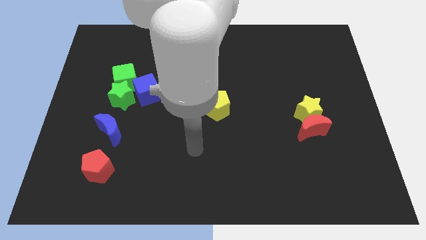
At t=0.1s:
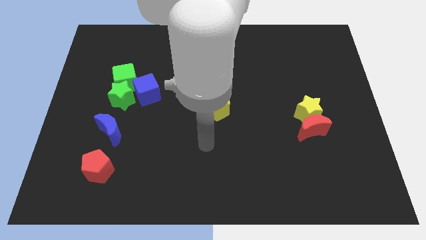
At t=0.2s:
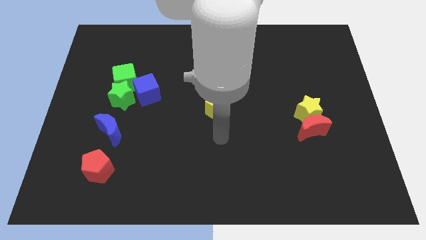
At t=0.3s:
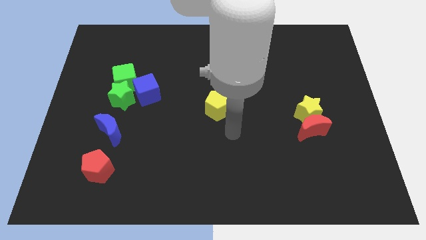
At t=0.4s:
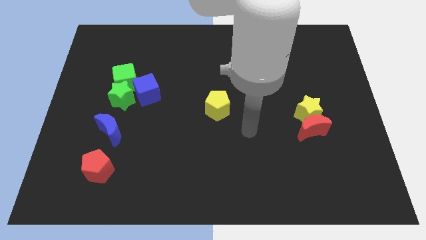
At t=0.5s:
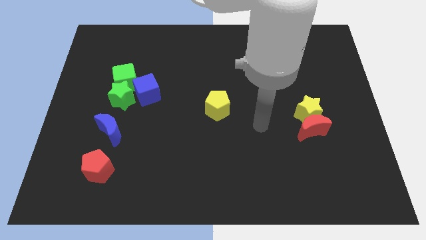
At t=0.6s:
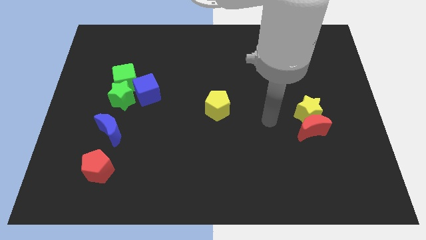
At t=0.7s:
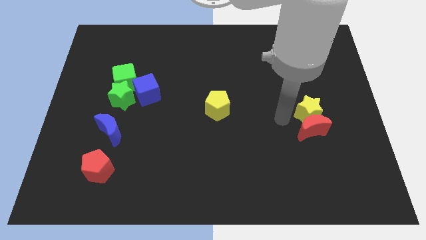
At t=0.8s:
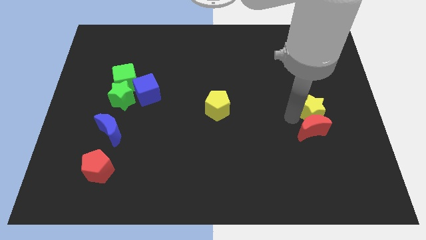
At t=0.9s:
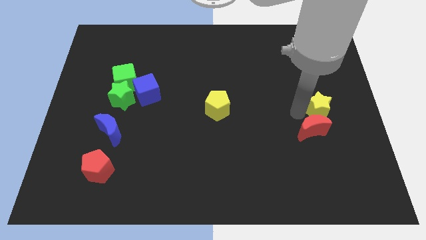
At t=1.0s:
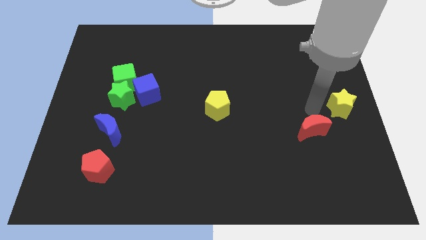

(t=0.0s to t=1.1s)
move the red moon away from the yellow star

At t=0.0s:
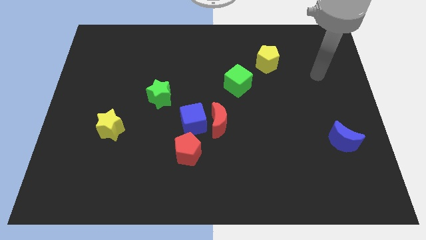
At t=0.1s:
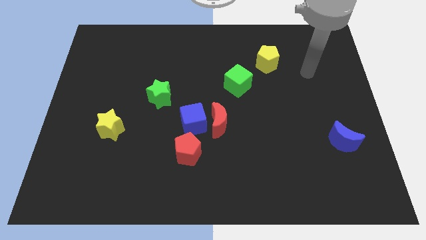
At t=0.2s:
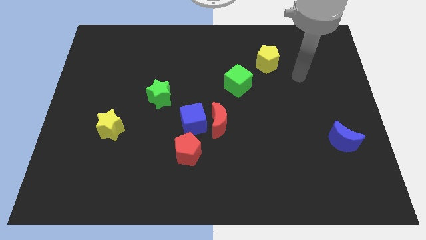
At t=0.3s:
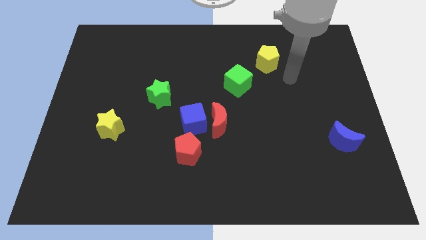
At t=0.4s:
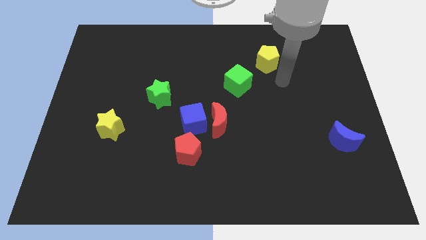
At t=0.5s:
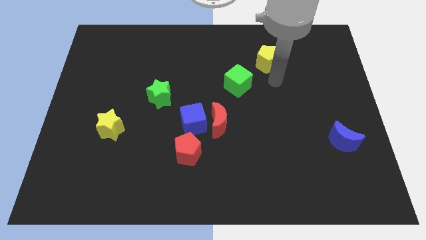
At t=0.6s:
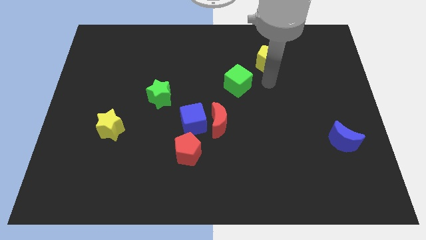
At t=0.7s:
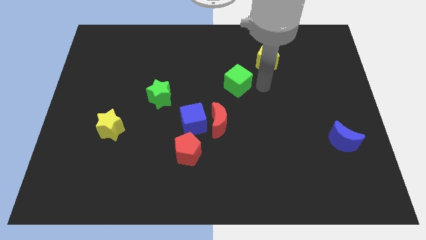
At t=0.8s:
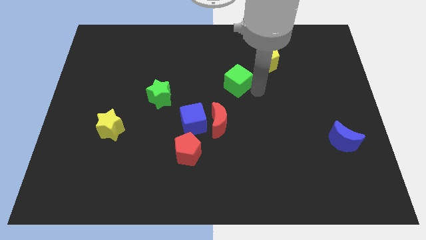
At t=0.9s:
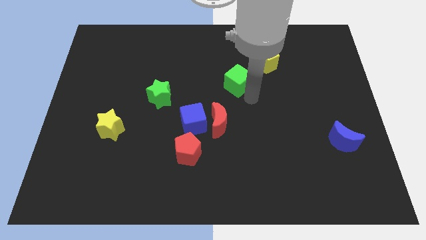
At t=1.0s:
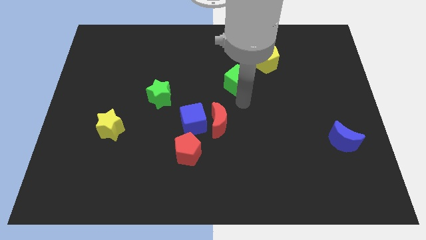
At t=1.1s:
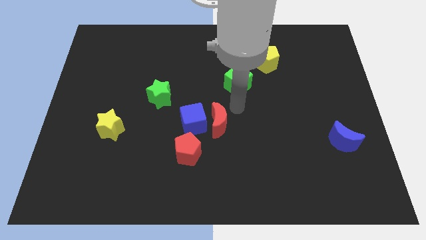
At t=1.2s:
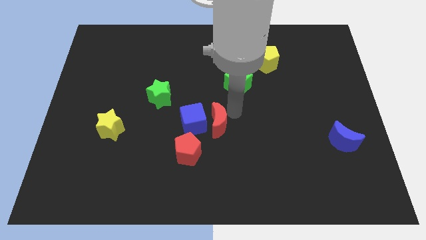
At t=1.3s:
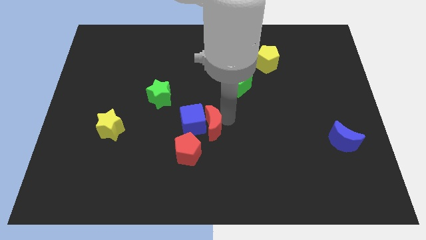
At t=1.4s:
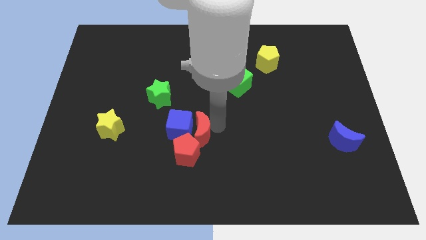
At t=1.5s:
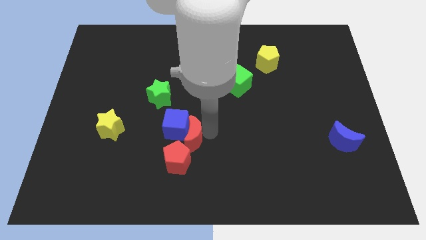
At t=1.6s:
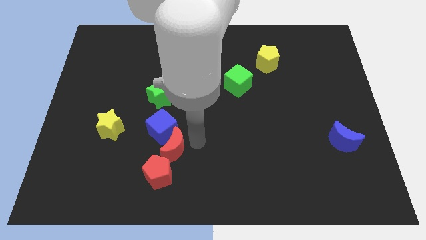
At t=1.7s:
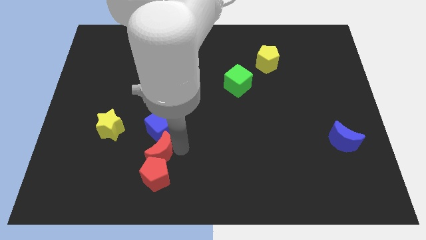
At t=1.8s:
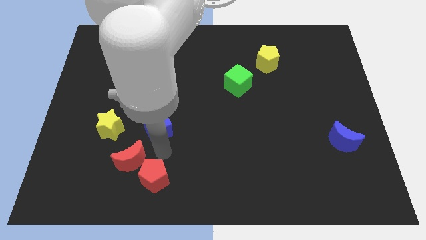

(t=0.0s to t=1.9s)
pull the blue cube apart from the red moon and red pentagon

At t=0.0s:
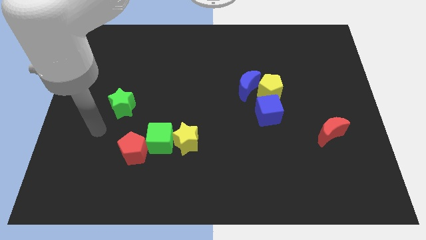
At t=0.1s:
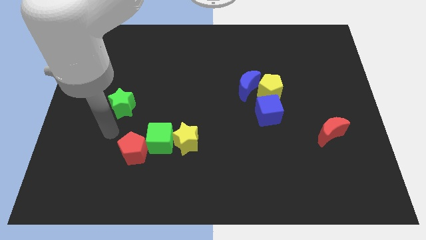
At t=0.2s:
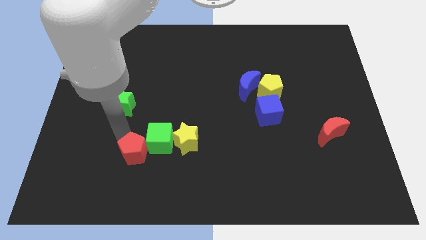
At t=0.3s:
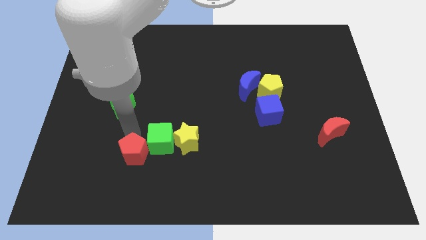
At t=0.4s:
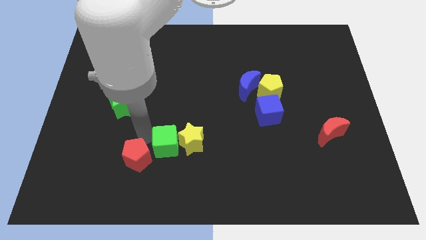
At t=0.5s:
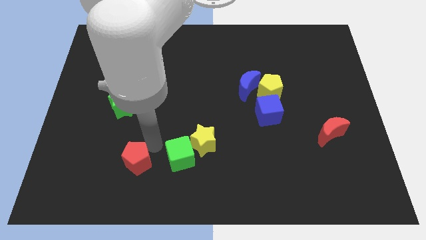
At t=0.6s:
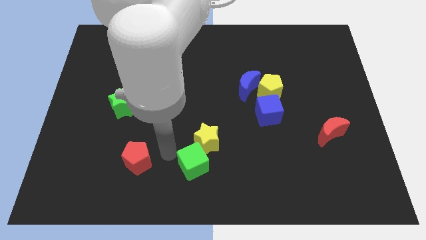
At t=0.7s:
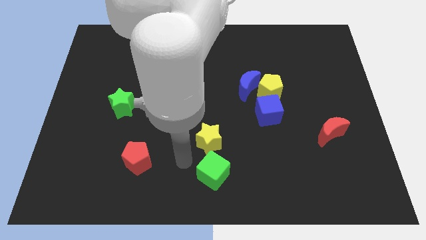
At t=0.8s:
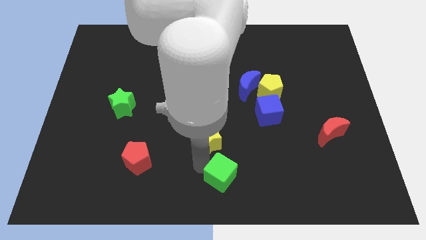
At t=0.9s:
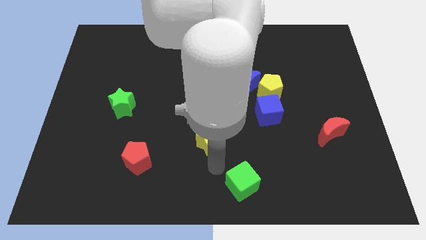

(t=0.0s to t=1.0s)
separate the yellow star from the green cube

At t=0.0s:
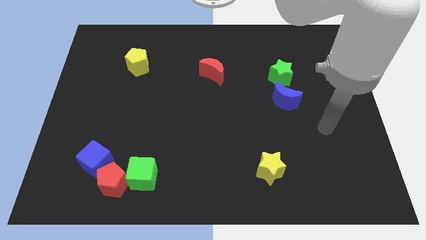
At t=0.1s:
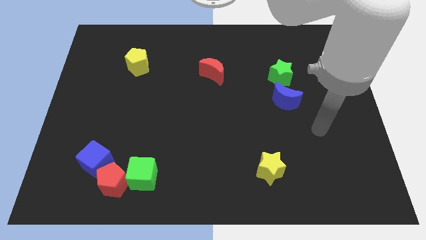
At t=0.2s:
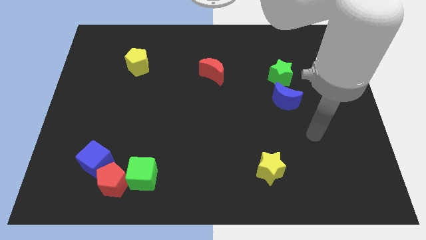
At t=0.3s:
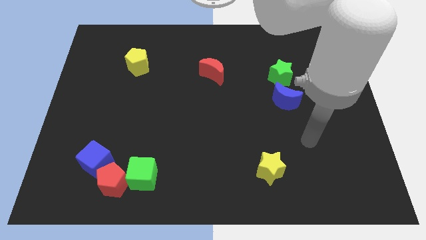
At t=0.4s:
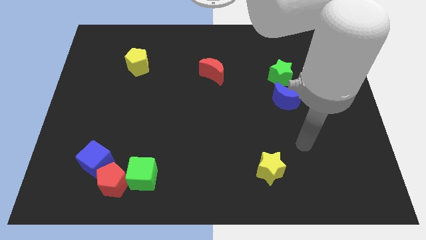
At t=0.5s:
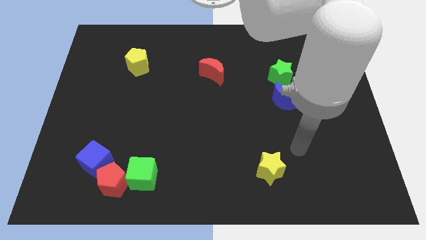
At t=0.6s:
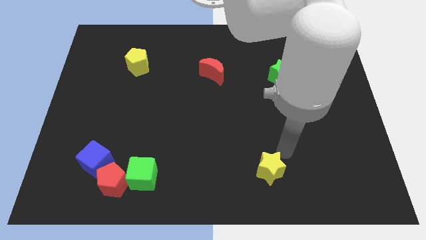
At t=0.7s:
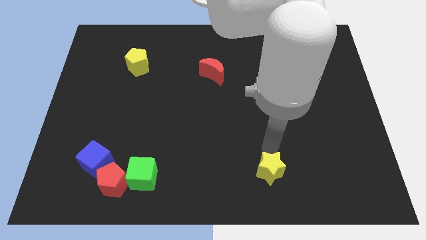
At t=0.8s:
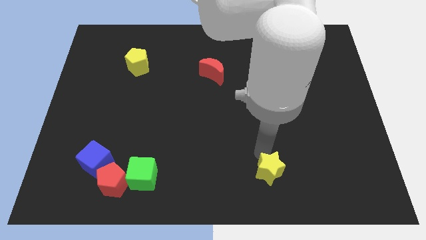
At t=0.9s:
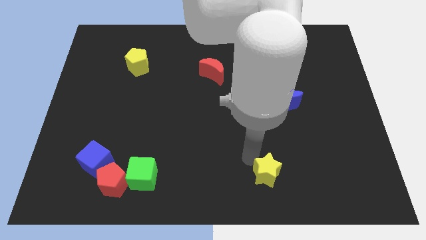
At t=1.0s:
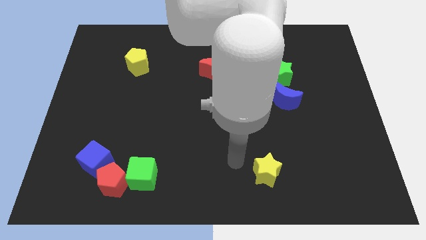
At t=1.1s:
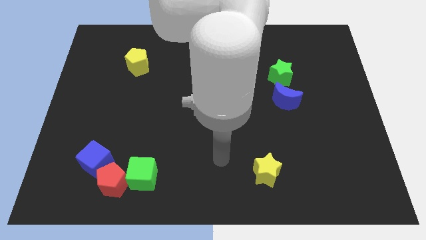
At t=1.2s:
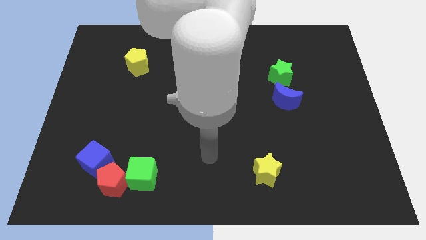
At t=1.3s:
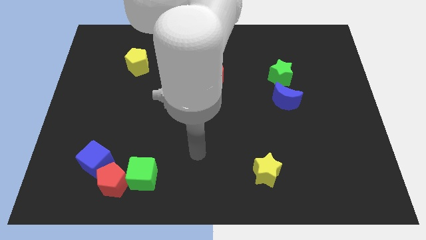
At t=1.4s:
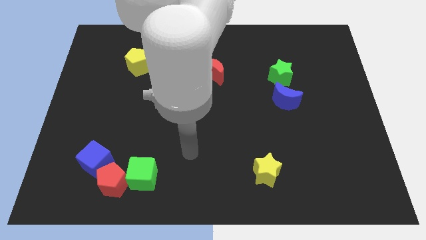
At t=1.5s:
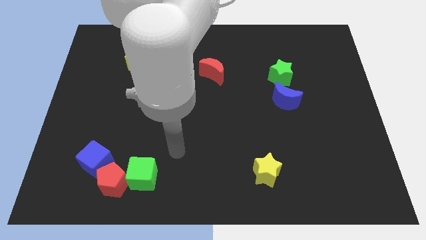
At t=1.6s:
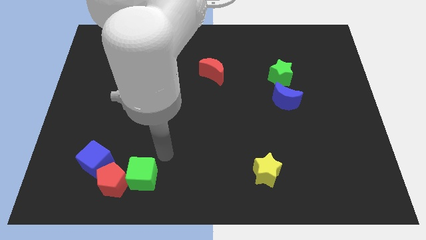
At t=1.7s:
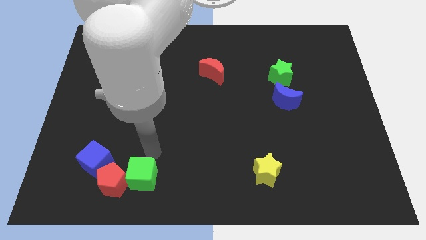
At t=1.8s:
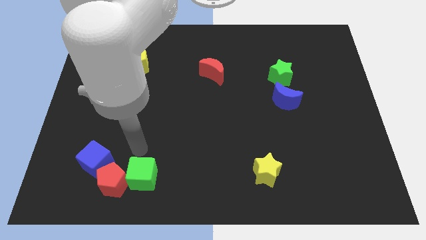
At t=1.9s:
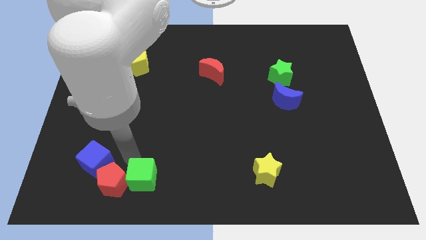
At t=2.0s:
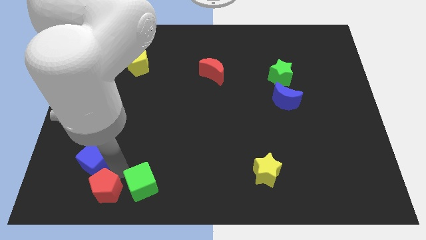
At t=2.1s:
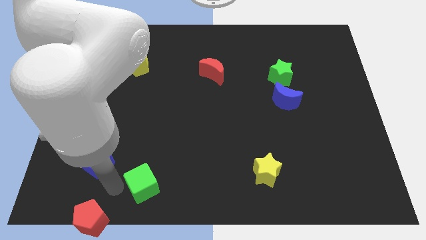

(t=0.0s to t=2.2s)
move the green cube away from the red pentagon

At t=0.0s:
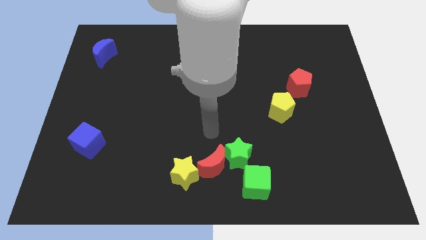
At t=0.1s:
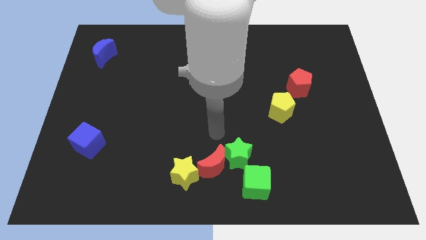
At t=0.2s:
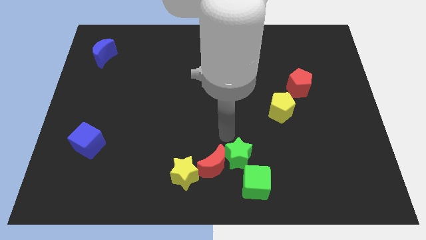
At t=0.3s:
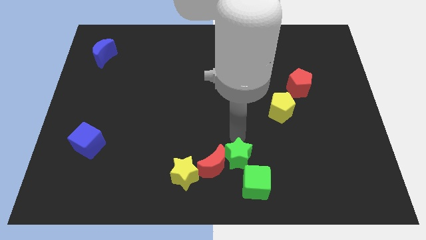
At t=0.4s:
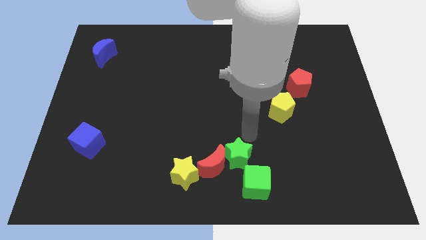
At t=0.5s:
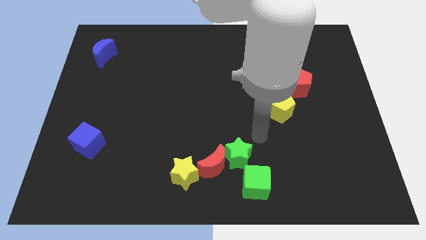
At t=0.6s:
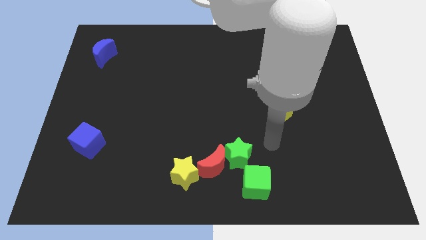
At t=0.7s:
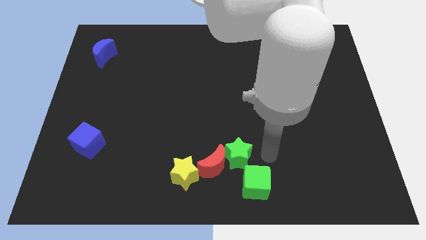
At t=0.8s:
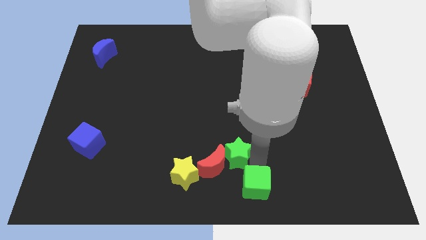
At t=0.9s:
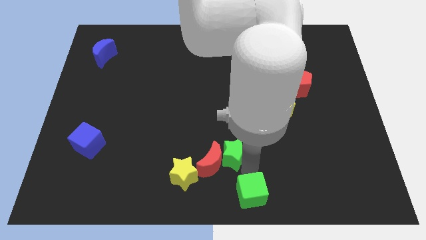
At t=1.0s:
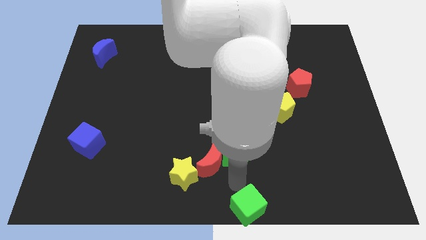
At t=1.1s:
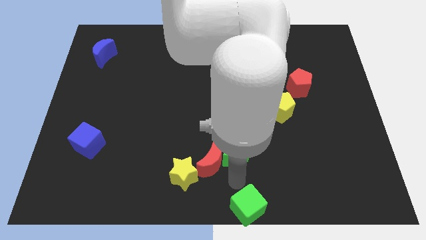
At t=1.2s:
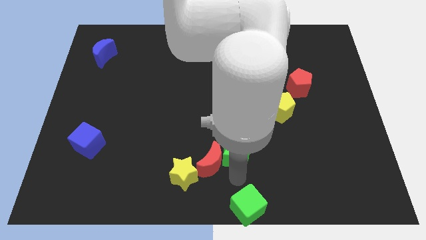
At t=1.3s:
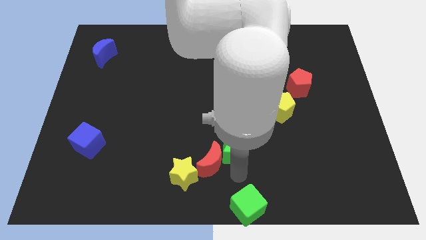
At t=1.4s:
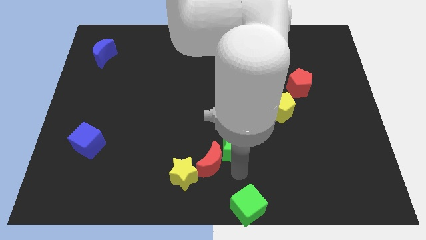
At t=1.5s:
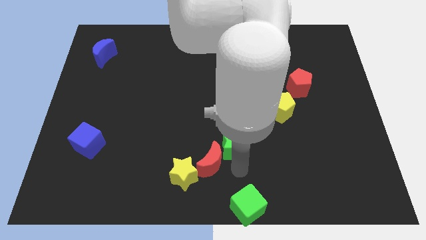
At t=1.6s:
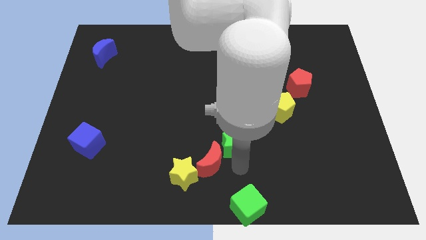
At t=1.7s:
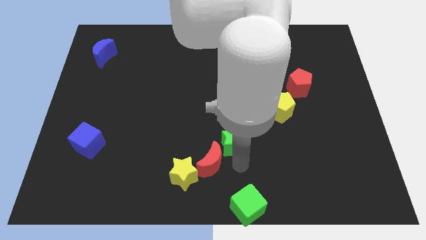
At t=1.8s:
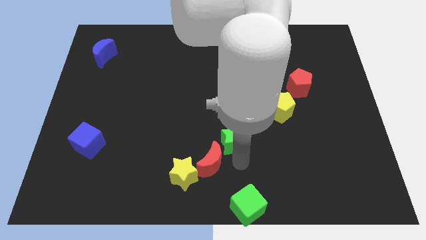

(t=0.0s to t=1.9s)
separate the green star from the red moon and green cube

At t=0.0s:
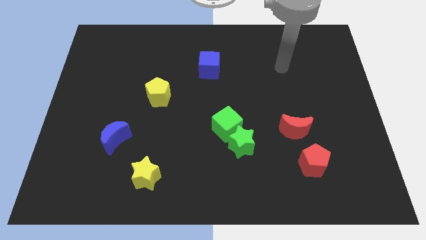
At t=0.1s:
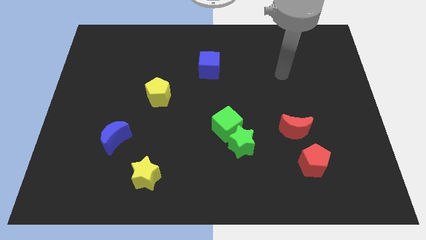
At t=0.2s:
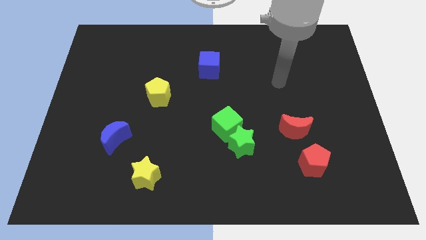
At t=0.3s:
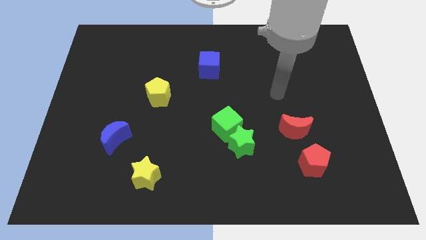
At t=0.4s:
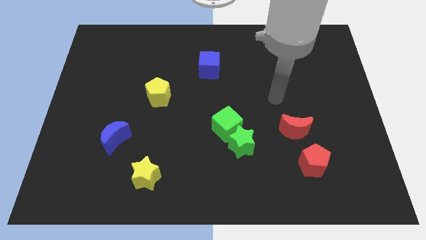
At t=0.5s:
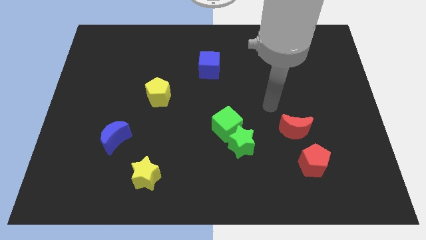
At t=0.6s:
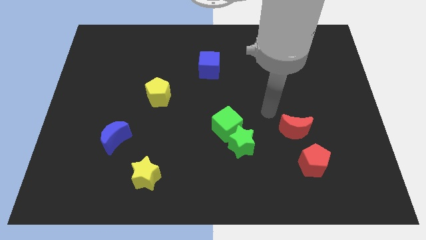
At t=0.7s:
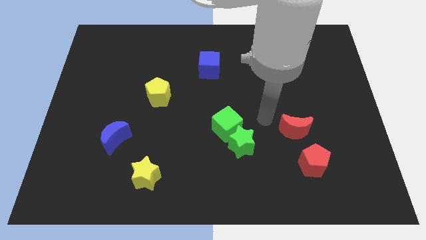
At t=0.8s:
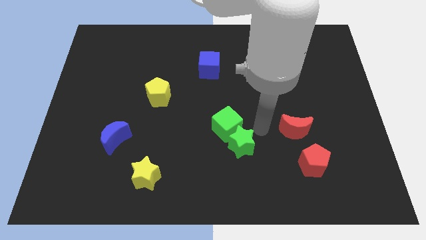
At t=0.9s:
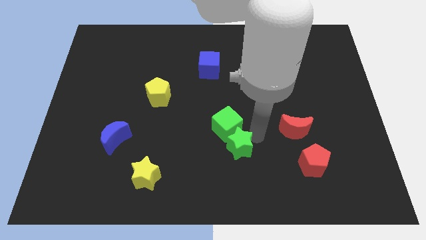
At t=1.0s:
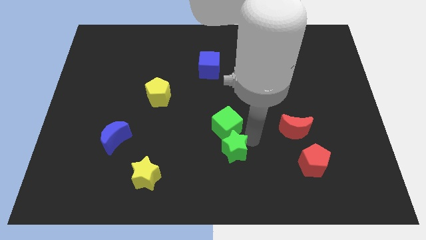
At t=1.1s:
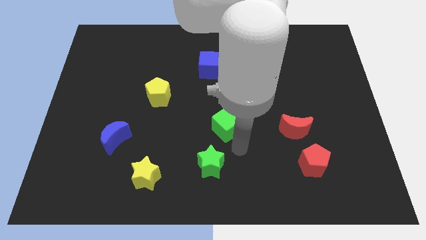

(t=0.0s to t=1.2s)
separate the green cube from the green star

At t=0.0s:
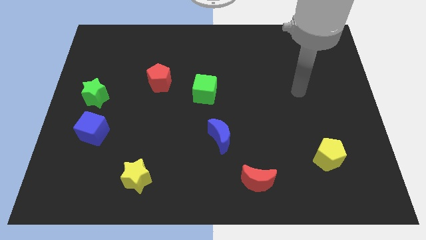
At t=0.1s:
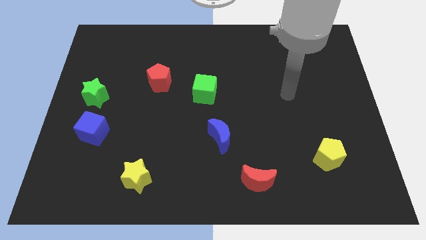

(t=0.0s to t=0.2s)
separate the blue cube from the green star
